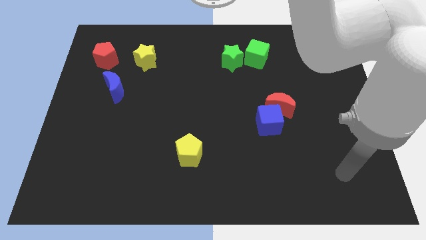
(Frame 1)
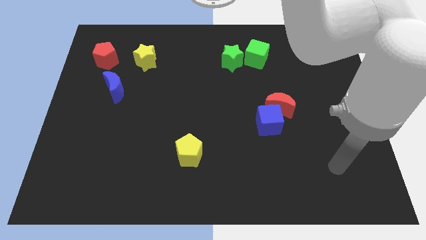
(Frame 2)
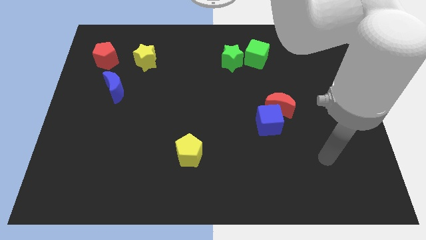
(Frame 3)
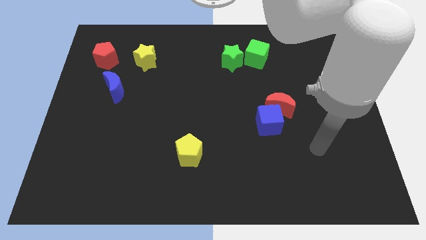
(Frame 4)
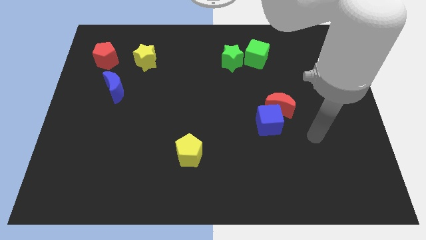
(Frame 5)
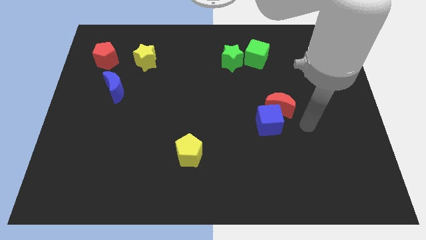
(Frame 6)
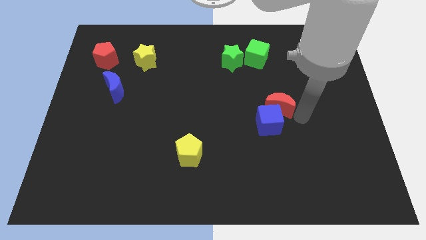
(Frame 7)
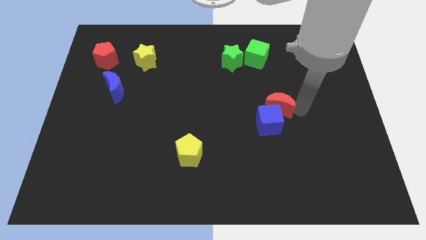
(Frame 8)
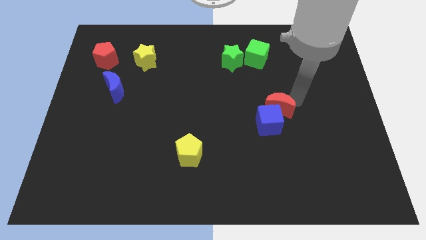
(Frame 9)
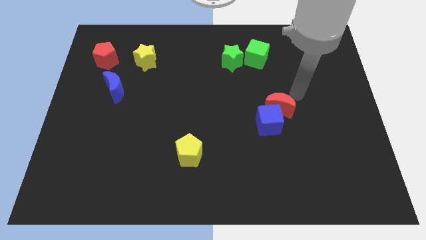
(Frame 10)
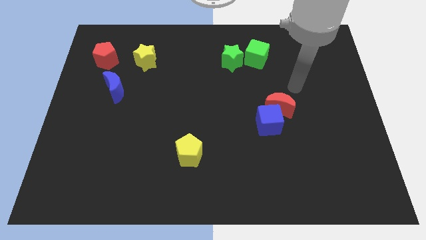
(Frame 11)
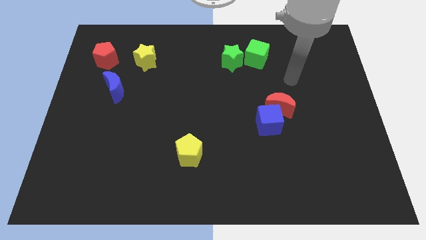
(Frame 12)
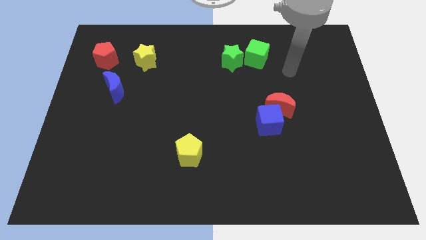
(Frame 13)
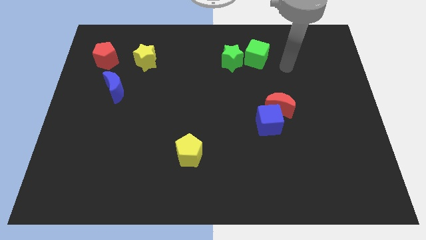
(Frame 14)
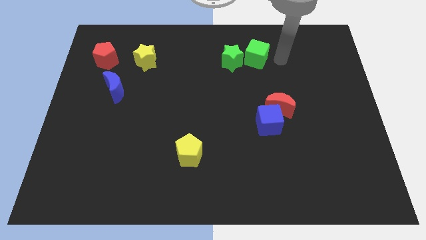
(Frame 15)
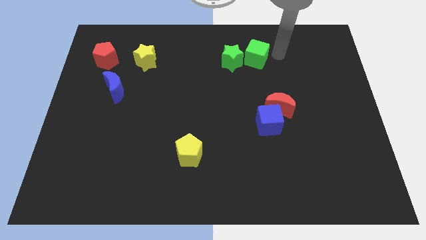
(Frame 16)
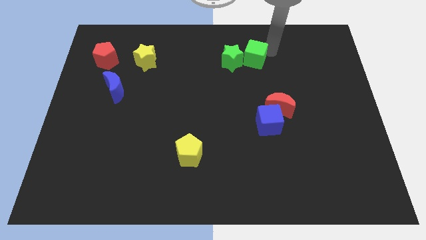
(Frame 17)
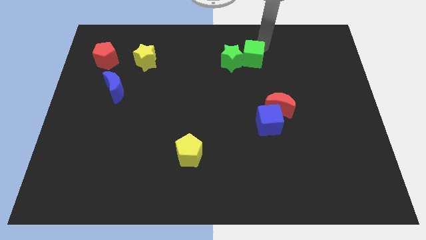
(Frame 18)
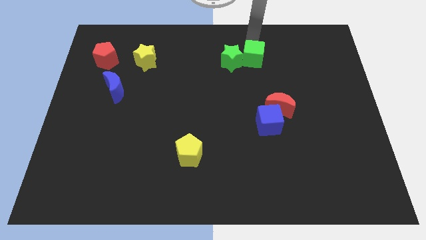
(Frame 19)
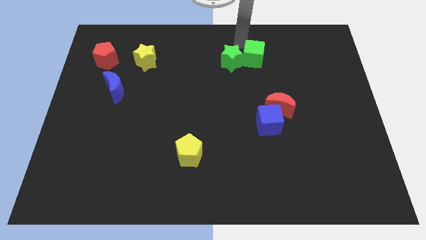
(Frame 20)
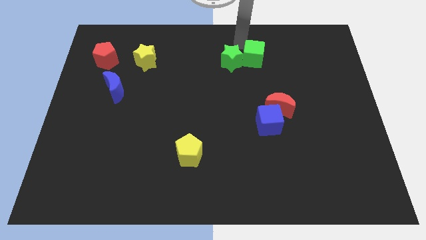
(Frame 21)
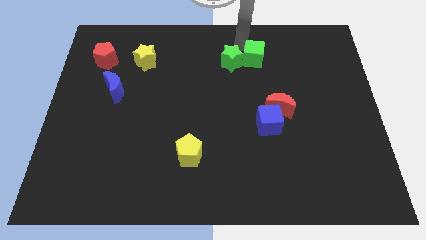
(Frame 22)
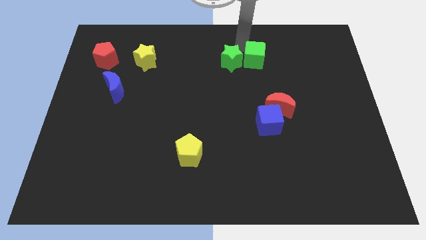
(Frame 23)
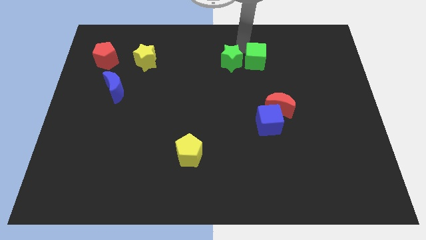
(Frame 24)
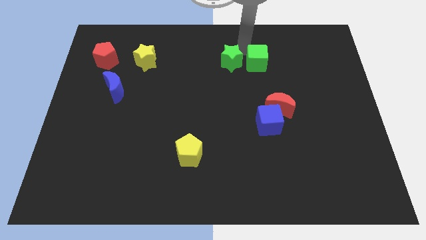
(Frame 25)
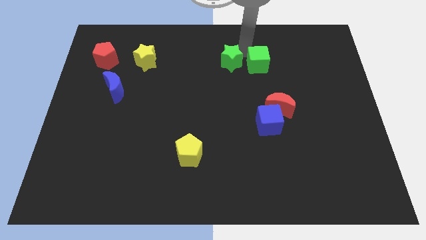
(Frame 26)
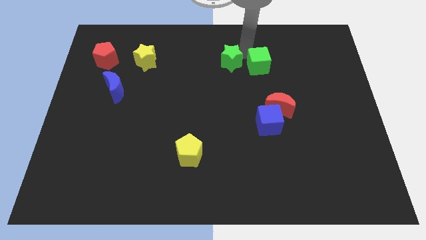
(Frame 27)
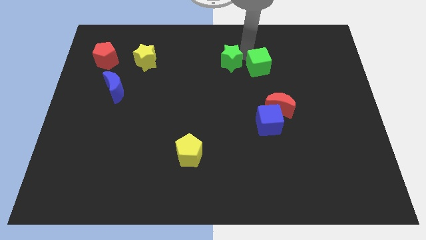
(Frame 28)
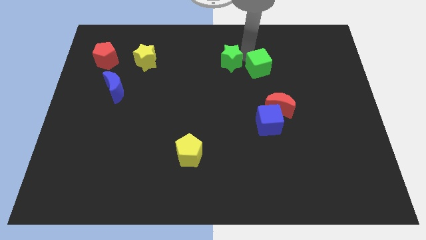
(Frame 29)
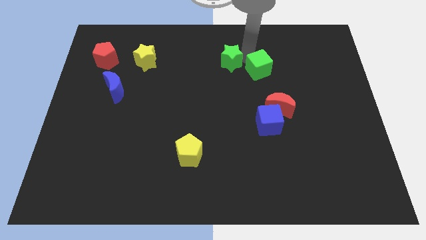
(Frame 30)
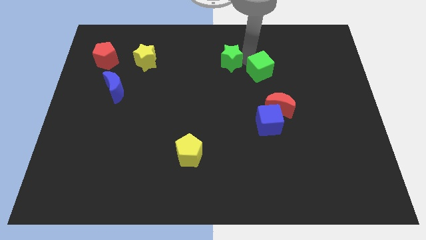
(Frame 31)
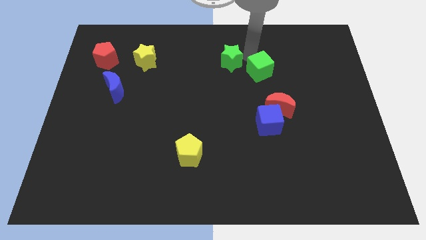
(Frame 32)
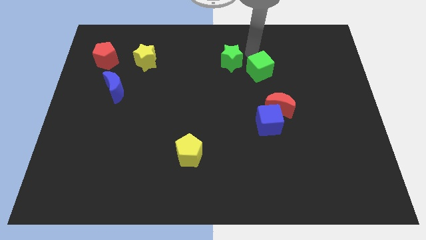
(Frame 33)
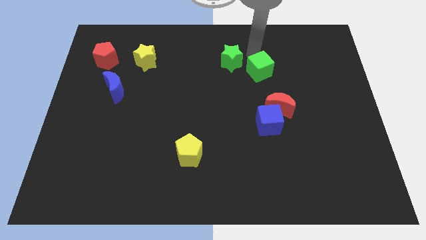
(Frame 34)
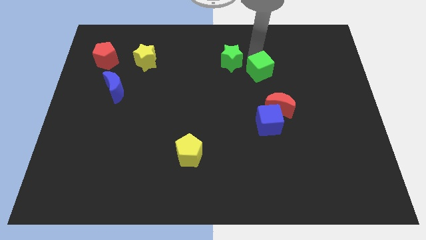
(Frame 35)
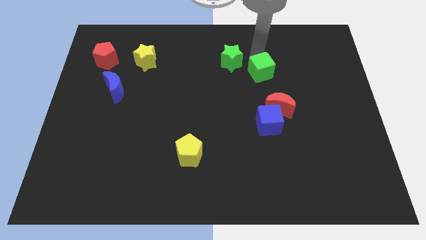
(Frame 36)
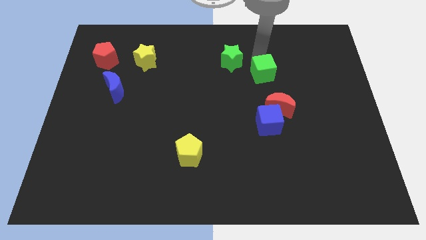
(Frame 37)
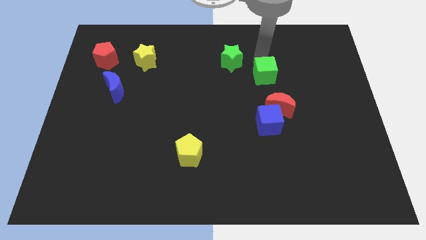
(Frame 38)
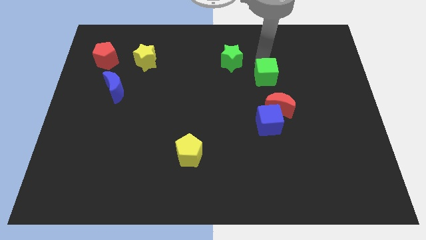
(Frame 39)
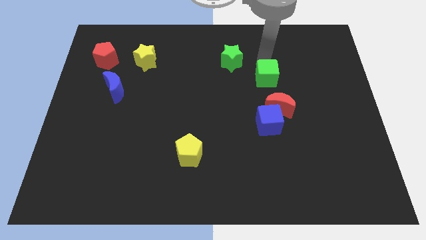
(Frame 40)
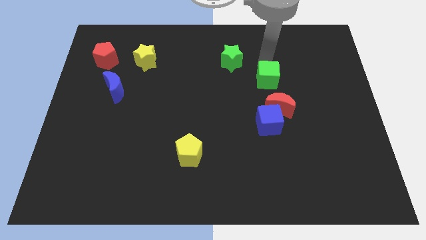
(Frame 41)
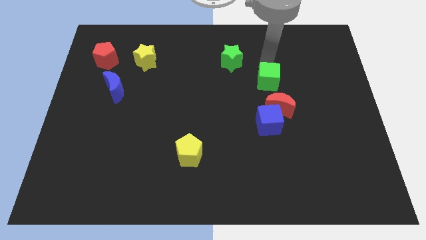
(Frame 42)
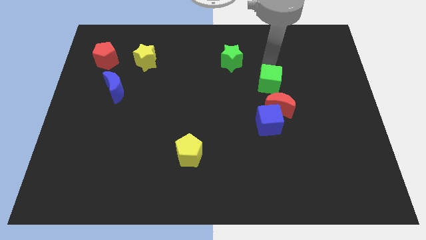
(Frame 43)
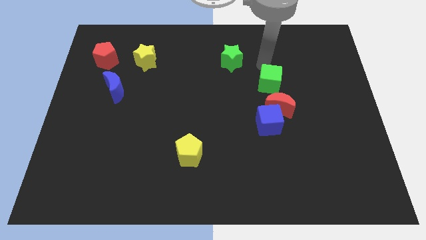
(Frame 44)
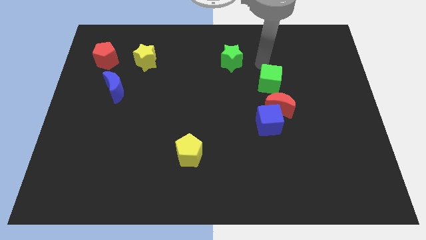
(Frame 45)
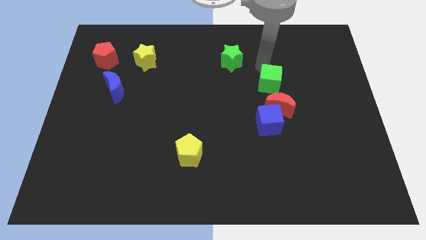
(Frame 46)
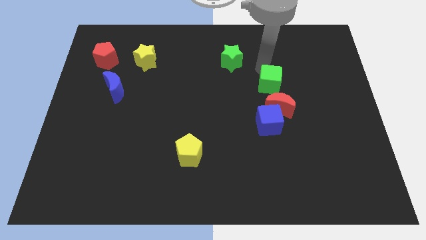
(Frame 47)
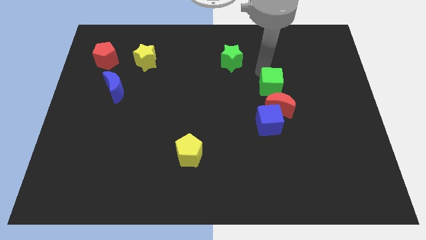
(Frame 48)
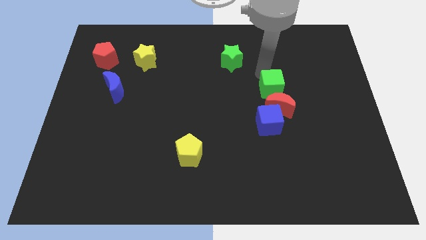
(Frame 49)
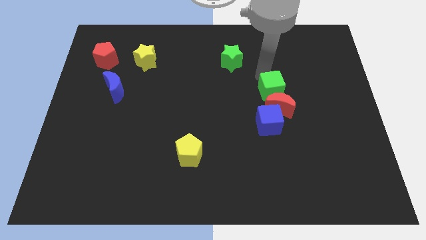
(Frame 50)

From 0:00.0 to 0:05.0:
put the green cube to the red moon

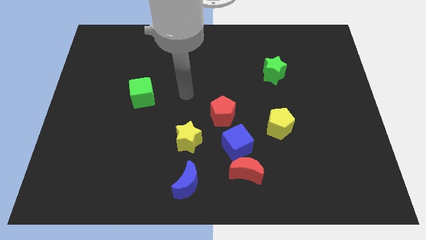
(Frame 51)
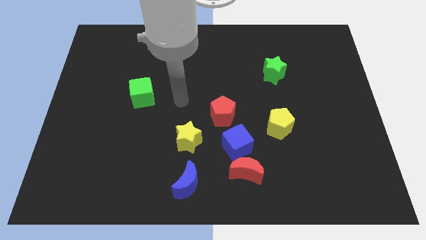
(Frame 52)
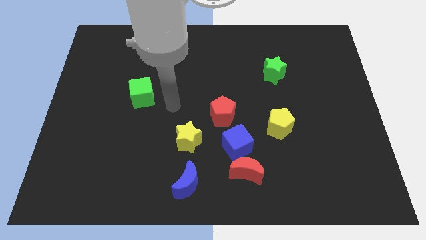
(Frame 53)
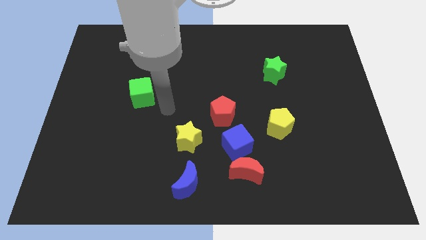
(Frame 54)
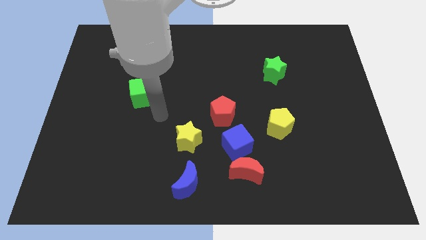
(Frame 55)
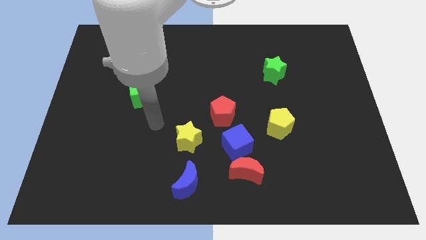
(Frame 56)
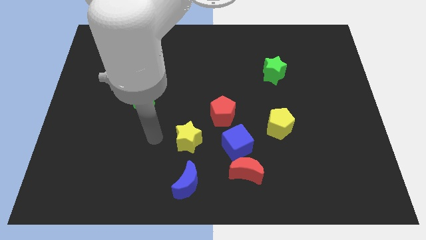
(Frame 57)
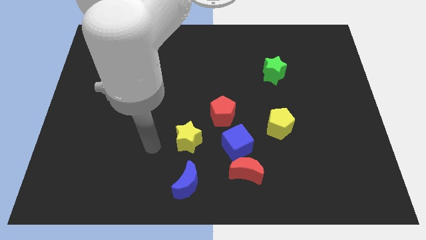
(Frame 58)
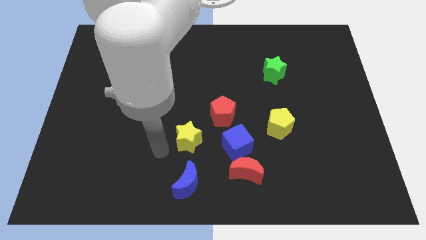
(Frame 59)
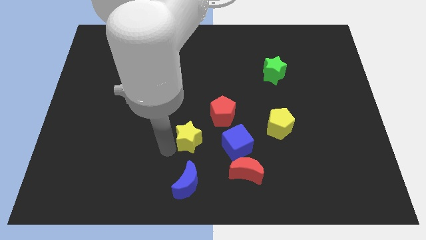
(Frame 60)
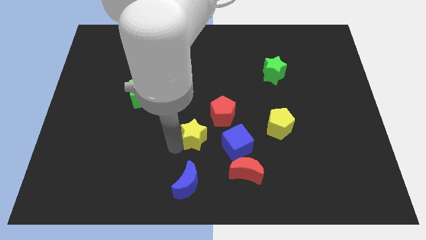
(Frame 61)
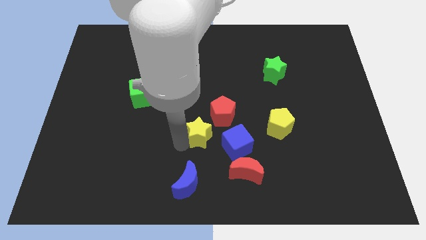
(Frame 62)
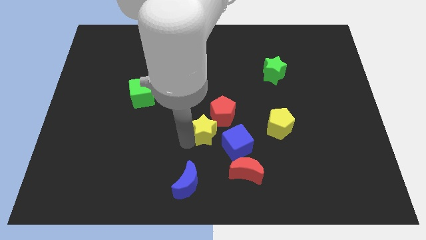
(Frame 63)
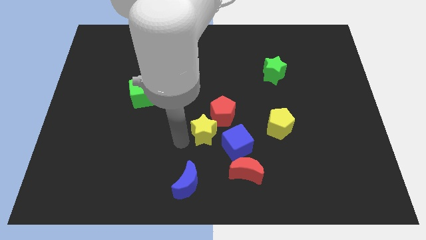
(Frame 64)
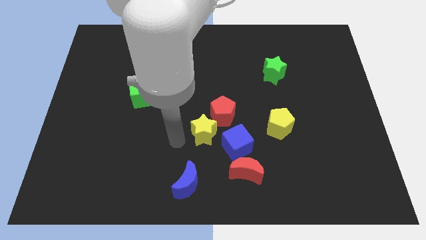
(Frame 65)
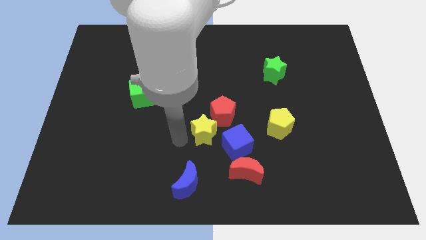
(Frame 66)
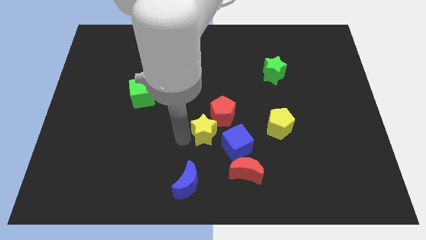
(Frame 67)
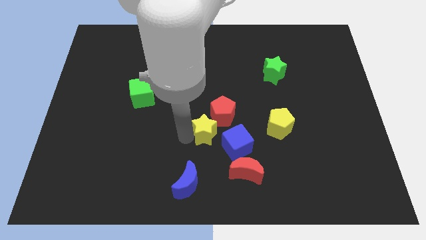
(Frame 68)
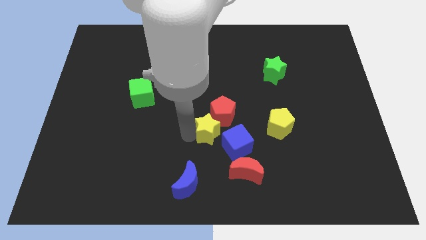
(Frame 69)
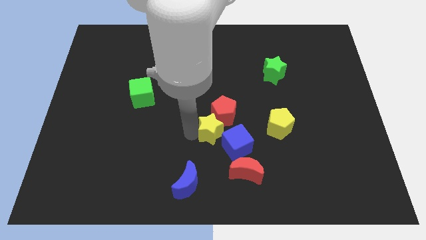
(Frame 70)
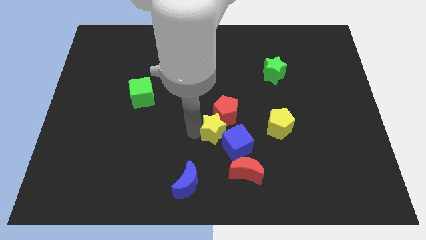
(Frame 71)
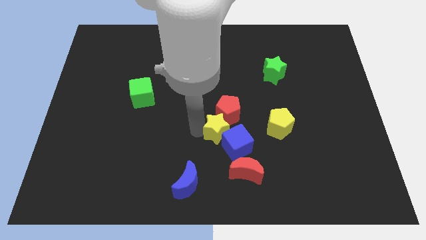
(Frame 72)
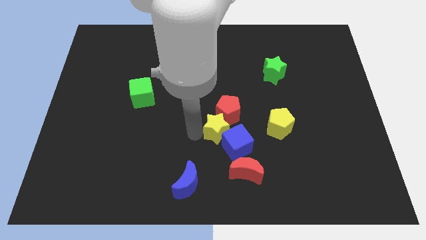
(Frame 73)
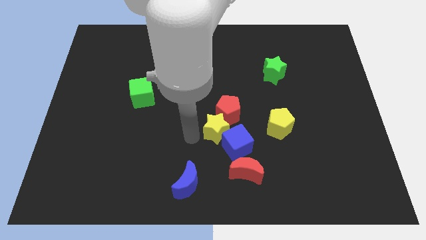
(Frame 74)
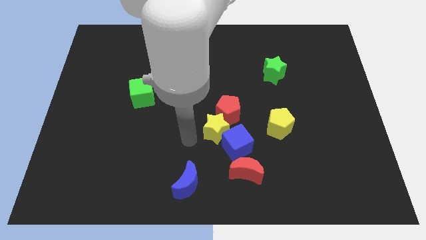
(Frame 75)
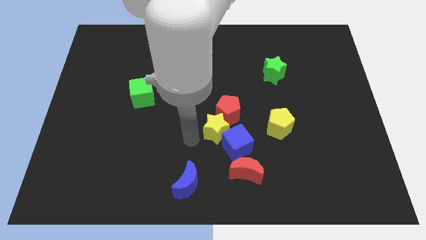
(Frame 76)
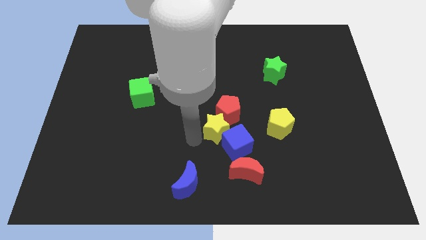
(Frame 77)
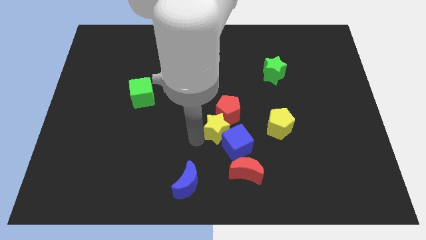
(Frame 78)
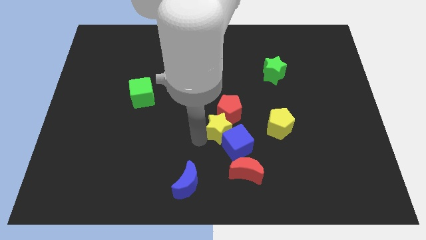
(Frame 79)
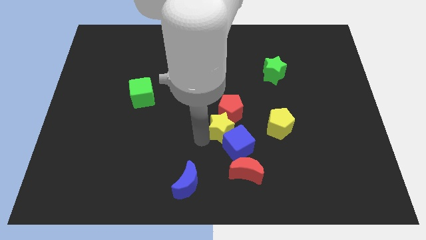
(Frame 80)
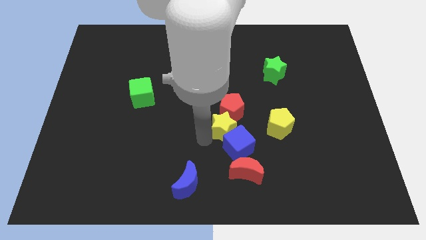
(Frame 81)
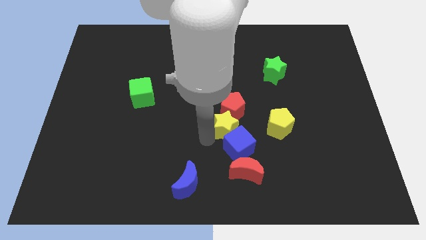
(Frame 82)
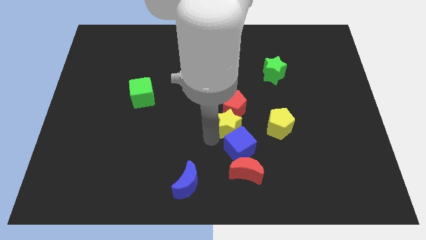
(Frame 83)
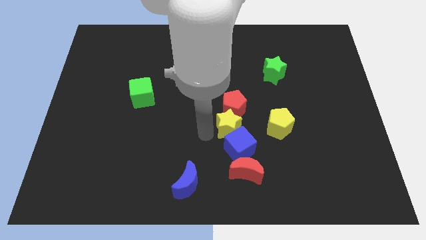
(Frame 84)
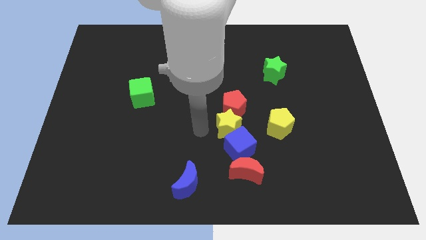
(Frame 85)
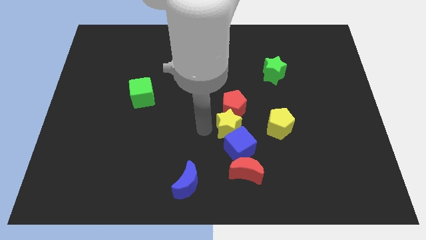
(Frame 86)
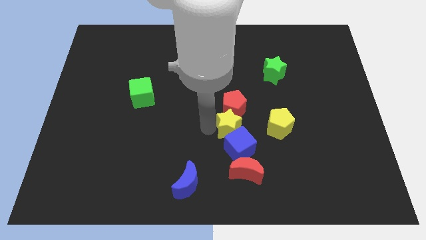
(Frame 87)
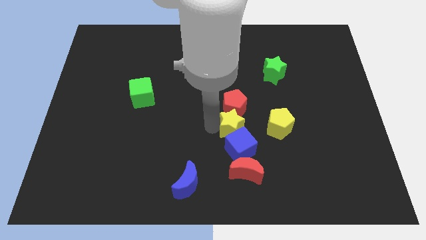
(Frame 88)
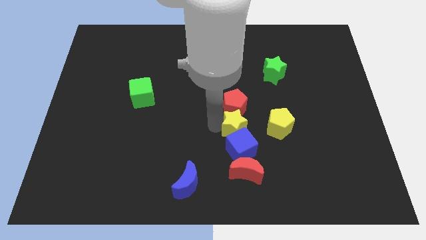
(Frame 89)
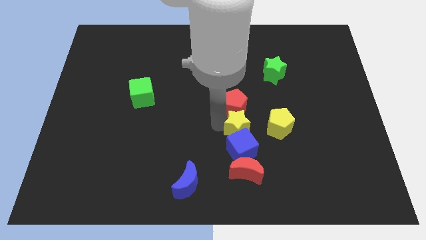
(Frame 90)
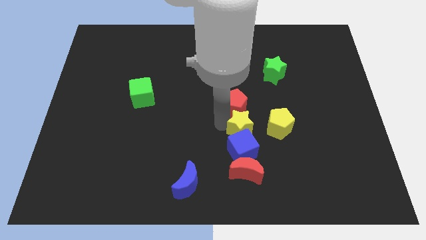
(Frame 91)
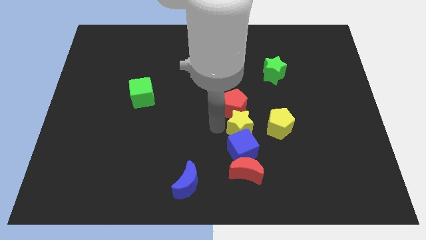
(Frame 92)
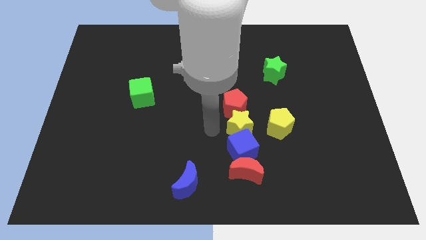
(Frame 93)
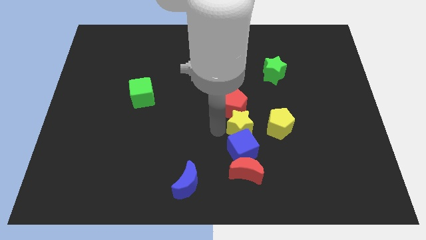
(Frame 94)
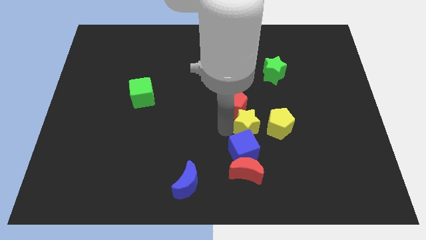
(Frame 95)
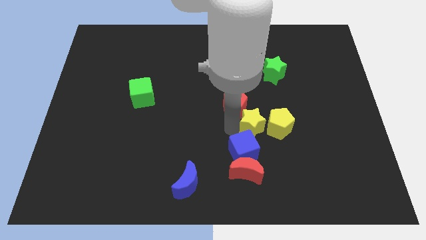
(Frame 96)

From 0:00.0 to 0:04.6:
move the yellow star close to the yellow pentagon
